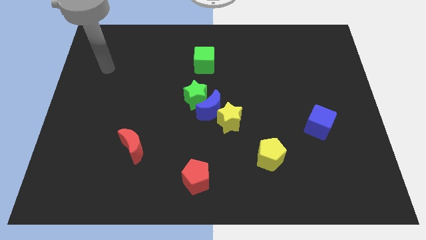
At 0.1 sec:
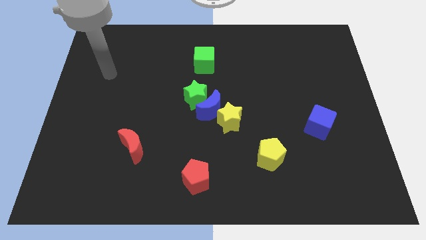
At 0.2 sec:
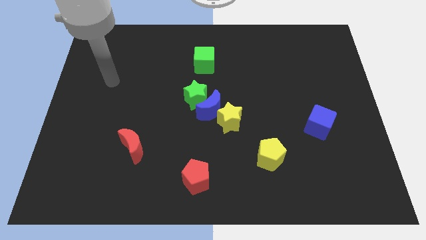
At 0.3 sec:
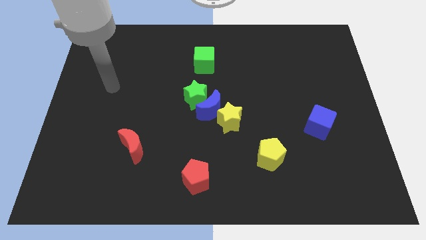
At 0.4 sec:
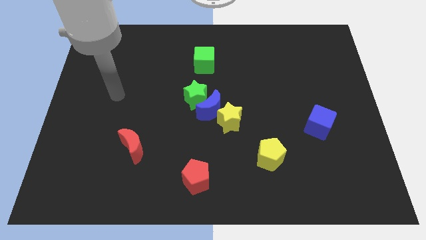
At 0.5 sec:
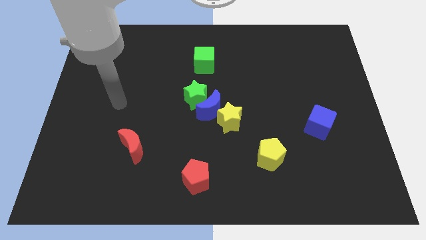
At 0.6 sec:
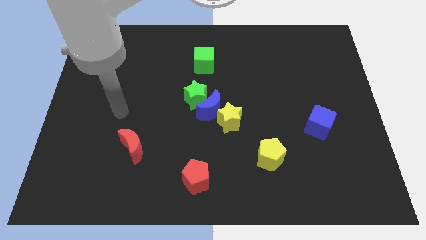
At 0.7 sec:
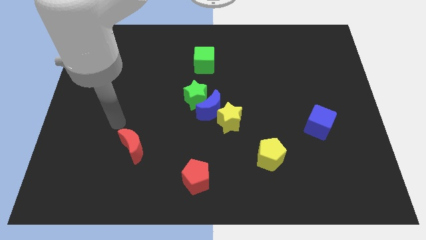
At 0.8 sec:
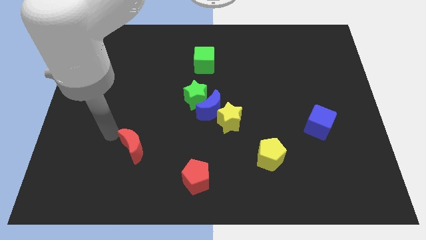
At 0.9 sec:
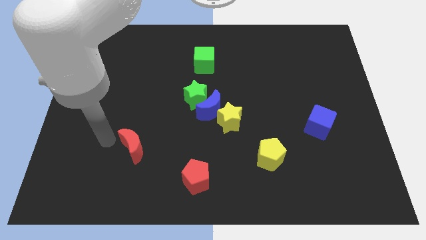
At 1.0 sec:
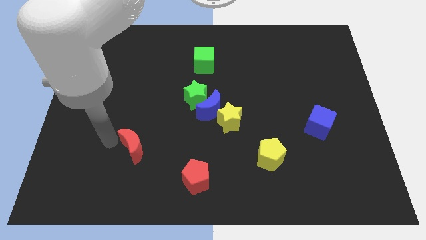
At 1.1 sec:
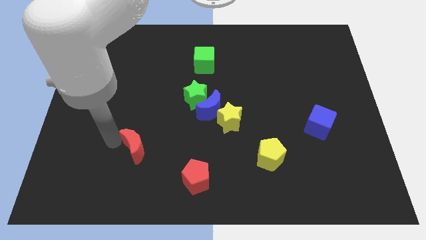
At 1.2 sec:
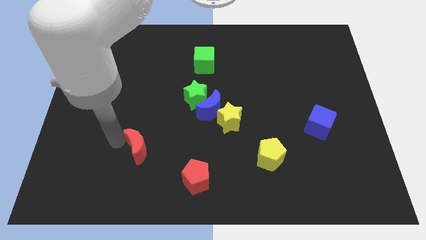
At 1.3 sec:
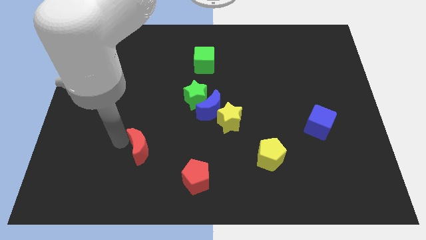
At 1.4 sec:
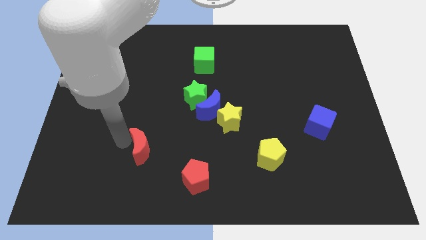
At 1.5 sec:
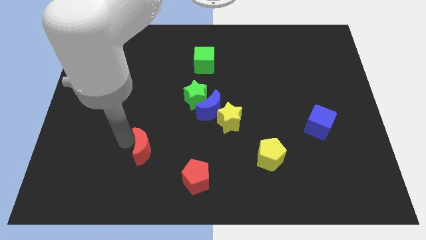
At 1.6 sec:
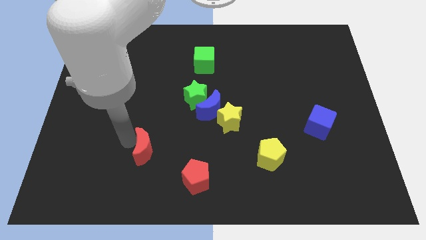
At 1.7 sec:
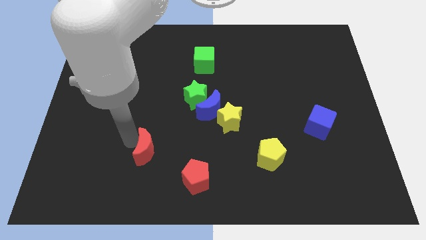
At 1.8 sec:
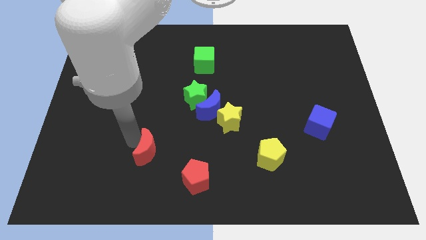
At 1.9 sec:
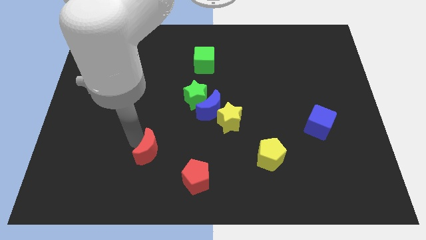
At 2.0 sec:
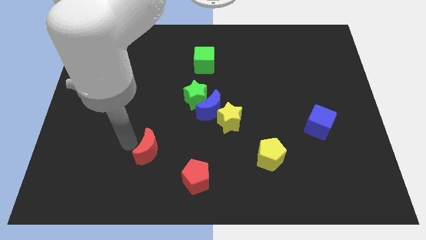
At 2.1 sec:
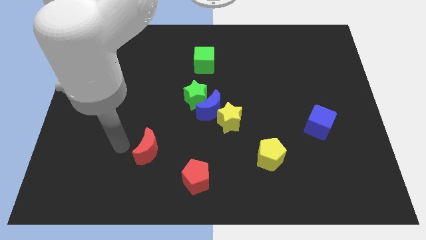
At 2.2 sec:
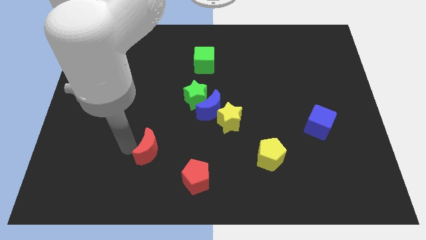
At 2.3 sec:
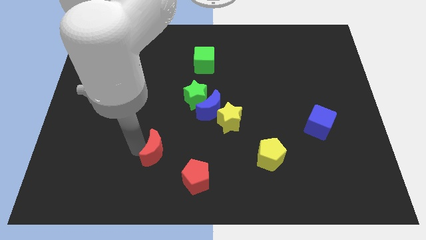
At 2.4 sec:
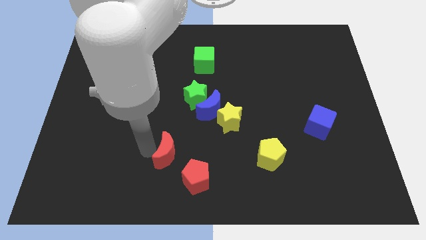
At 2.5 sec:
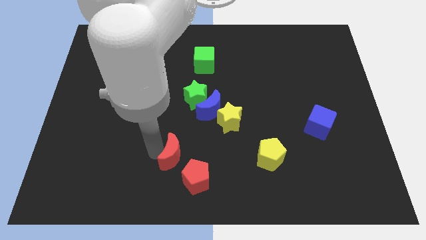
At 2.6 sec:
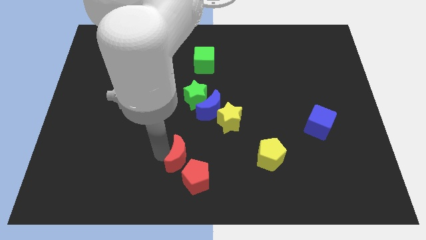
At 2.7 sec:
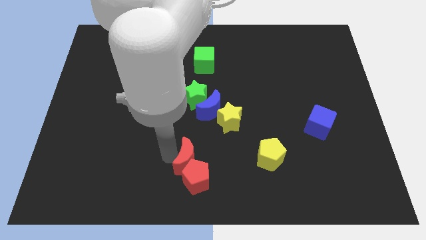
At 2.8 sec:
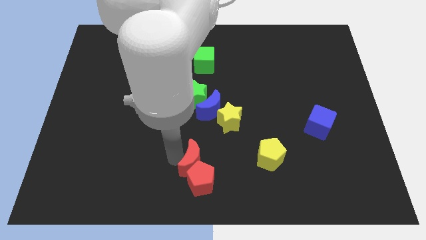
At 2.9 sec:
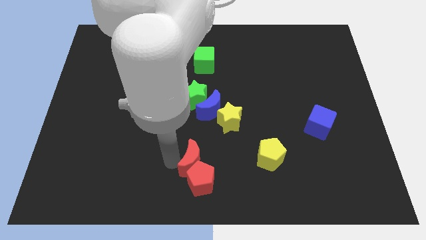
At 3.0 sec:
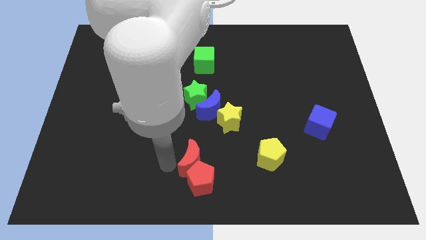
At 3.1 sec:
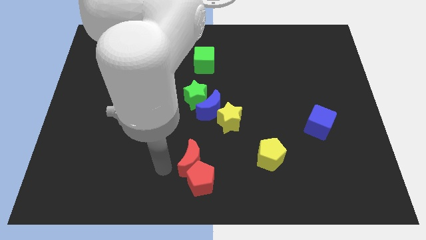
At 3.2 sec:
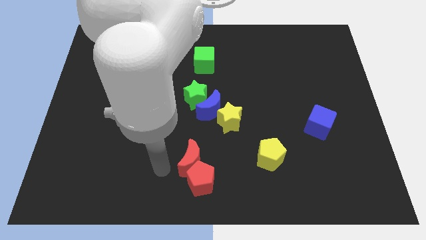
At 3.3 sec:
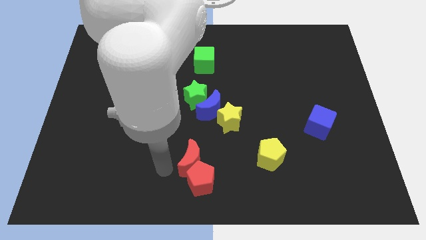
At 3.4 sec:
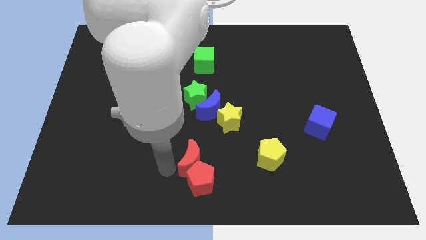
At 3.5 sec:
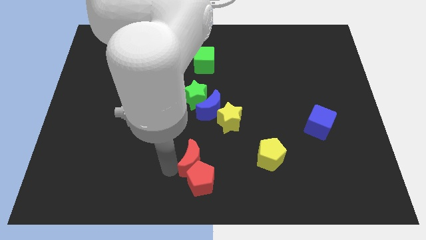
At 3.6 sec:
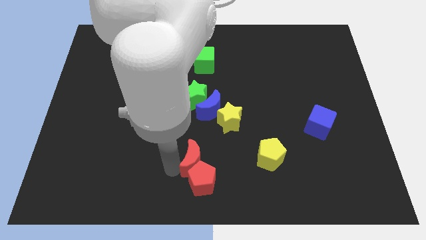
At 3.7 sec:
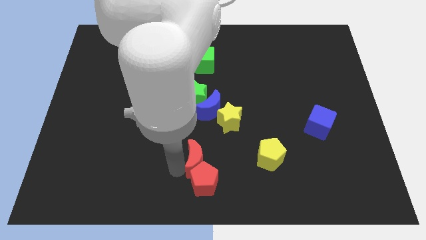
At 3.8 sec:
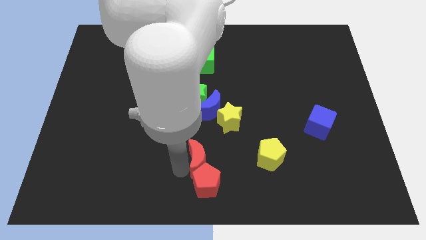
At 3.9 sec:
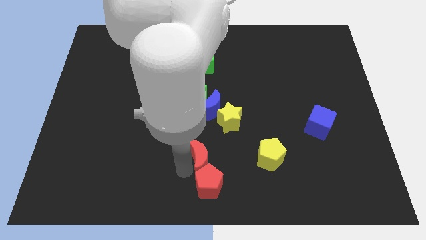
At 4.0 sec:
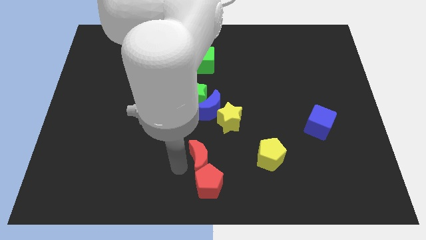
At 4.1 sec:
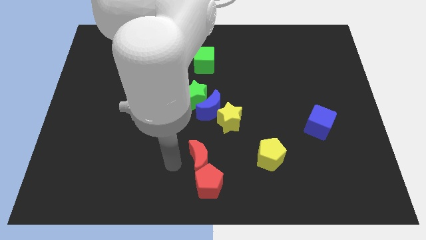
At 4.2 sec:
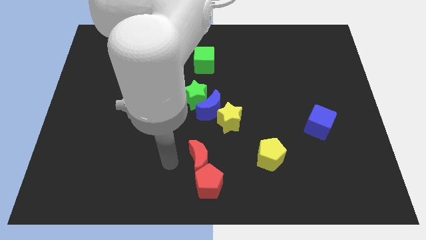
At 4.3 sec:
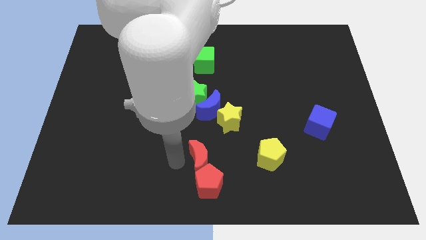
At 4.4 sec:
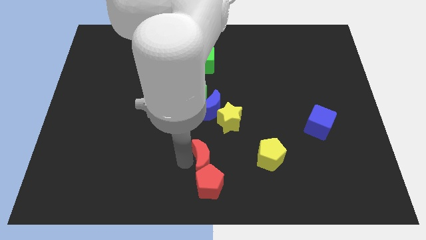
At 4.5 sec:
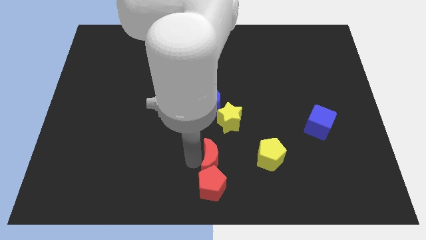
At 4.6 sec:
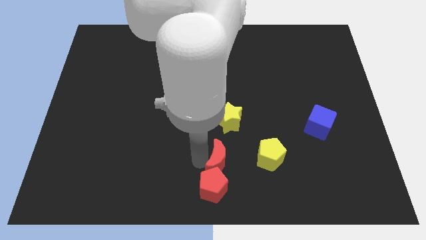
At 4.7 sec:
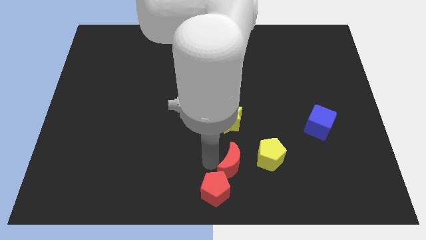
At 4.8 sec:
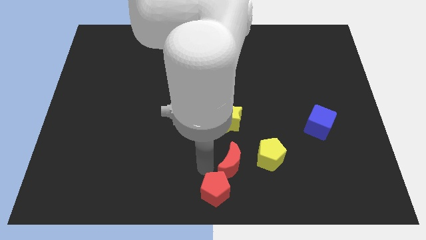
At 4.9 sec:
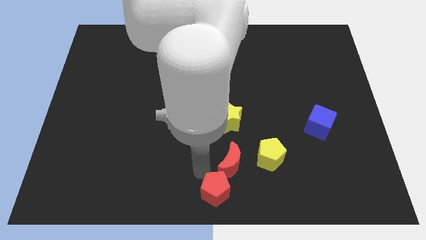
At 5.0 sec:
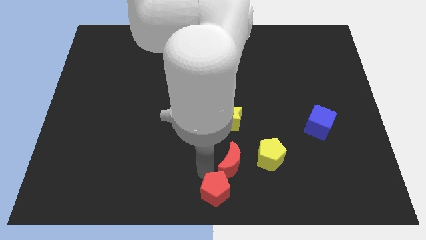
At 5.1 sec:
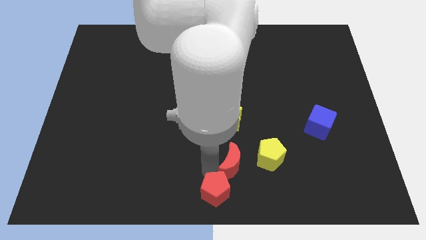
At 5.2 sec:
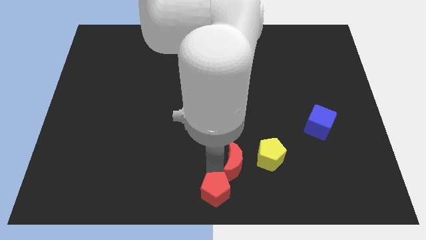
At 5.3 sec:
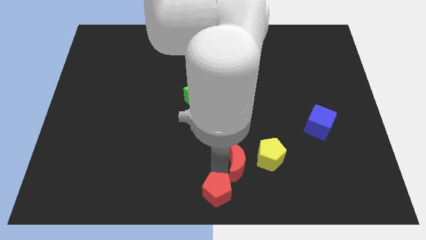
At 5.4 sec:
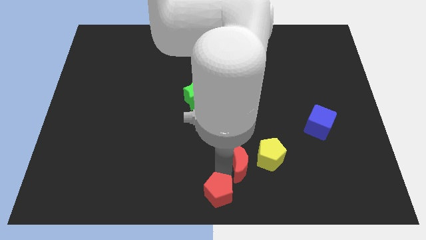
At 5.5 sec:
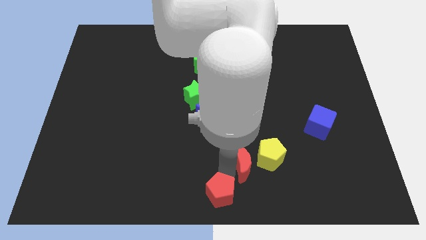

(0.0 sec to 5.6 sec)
put the red moon next to the yellow pentagon

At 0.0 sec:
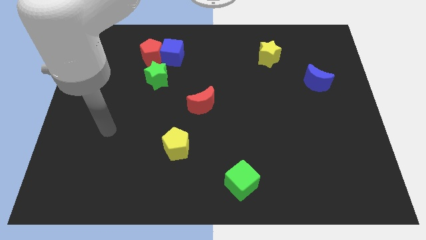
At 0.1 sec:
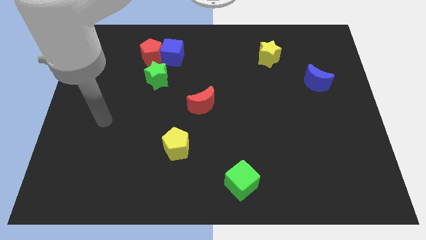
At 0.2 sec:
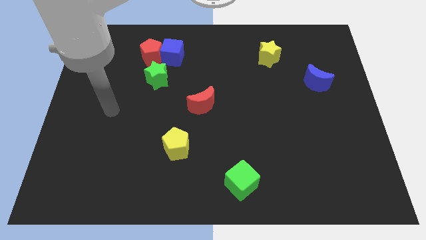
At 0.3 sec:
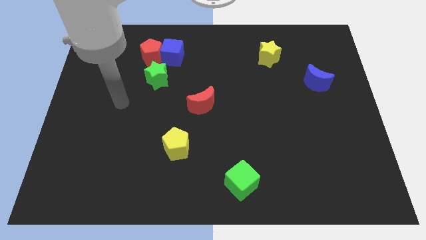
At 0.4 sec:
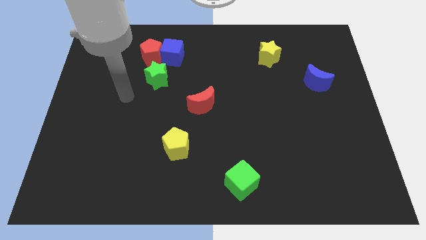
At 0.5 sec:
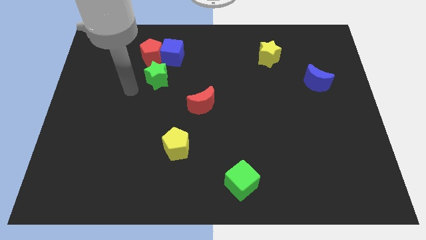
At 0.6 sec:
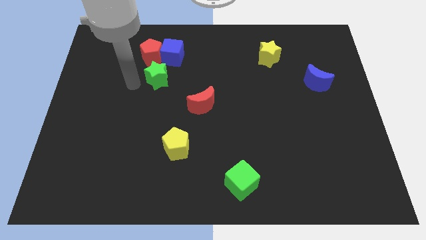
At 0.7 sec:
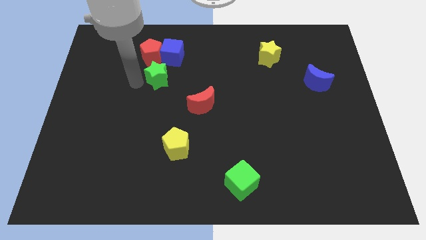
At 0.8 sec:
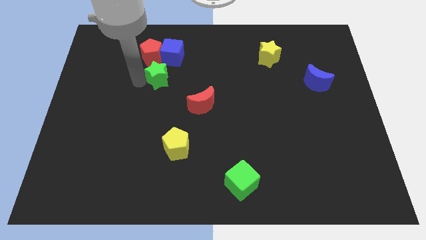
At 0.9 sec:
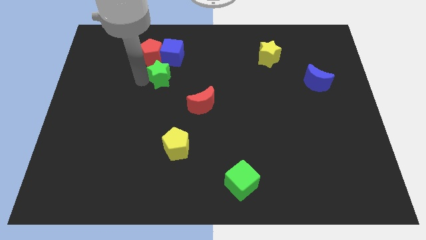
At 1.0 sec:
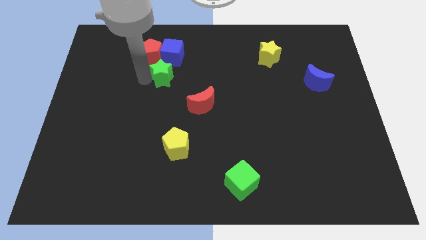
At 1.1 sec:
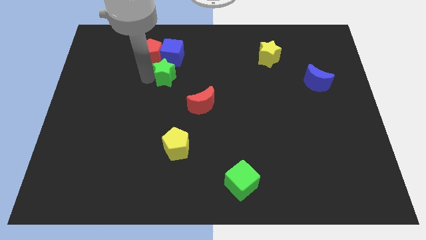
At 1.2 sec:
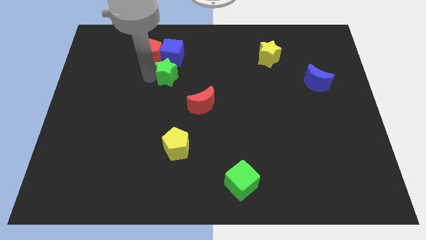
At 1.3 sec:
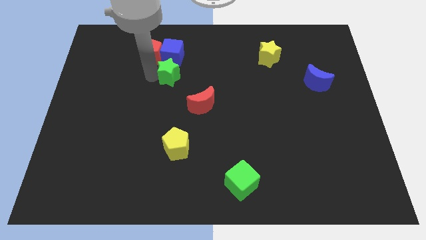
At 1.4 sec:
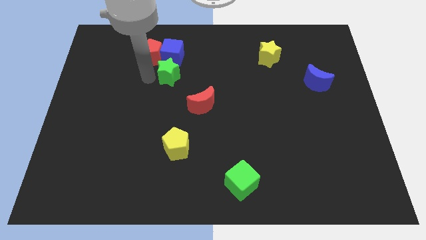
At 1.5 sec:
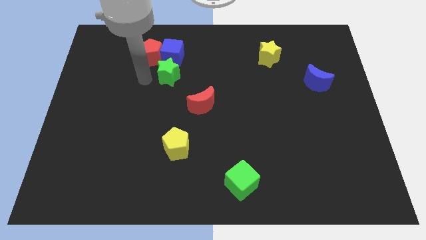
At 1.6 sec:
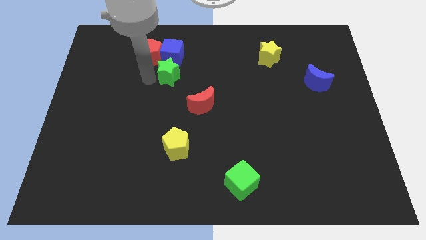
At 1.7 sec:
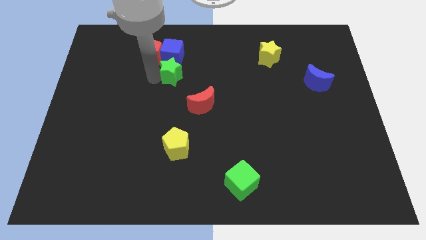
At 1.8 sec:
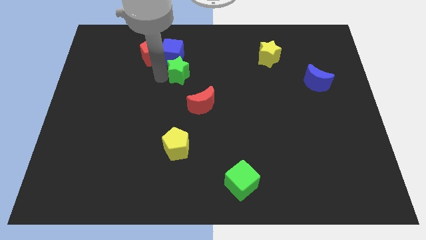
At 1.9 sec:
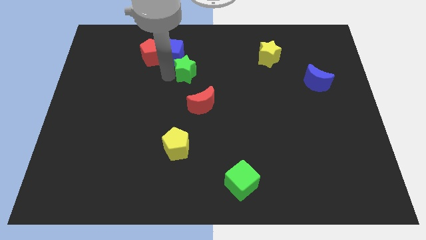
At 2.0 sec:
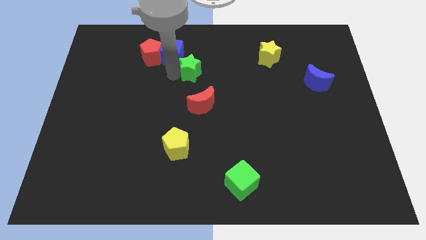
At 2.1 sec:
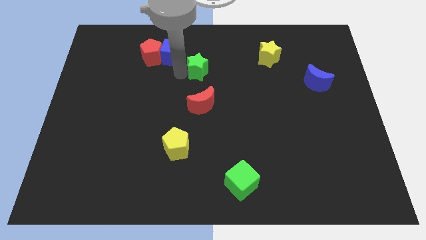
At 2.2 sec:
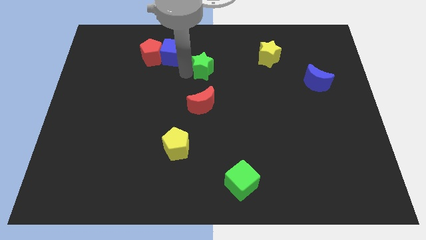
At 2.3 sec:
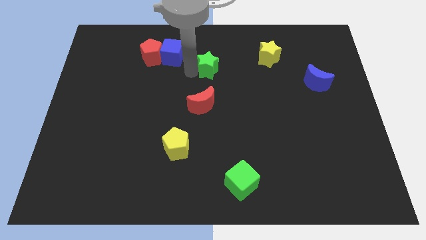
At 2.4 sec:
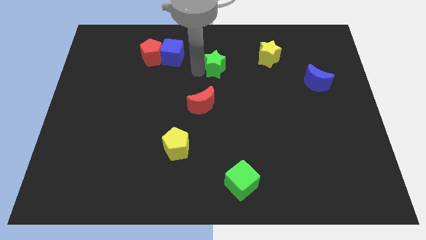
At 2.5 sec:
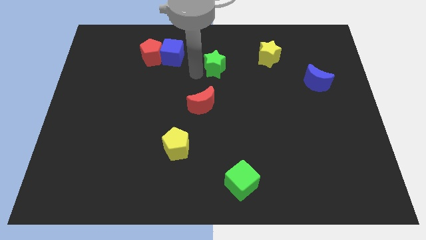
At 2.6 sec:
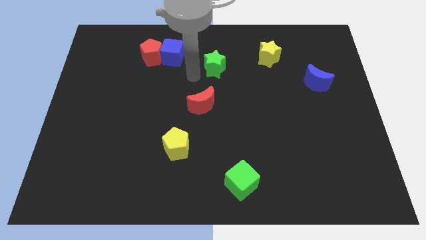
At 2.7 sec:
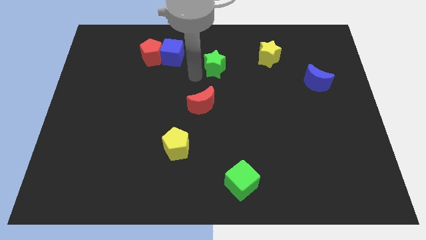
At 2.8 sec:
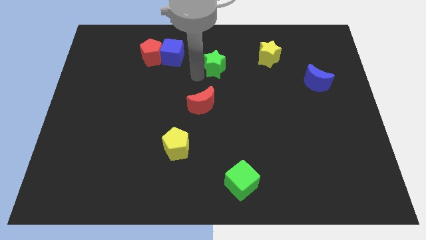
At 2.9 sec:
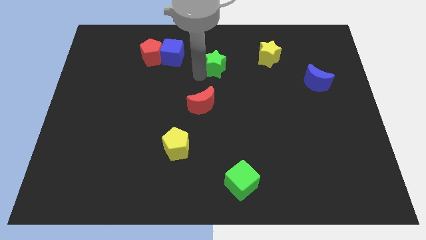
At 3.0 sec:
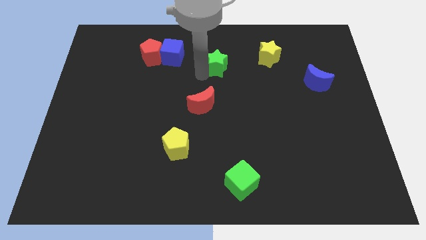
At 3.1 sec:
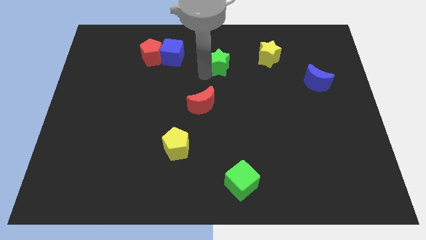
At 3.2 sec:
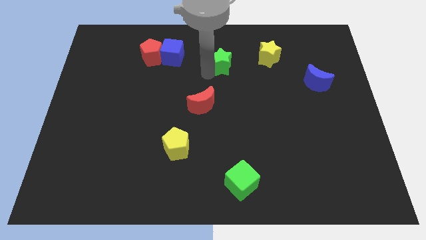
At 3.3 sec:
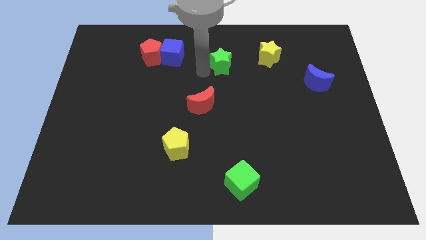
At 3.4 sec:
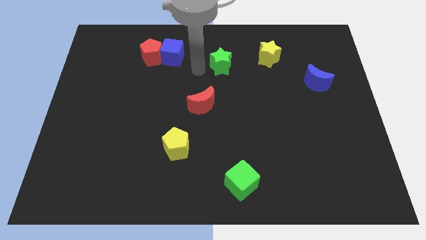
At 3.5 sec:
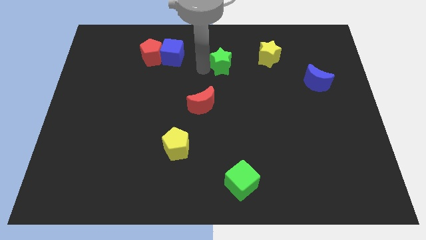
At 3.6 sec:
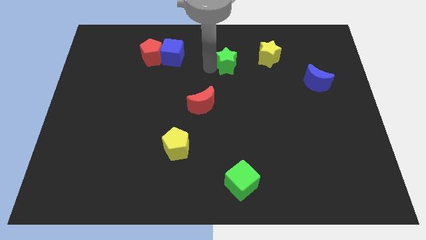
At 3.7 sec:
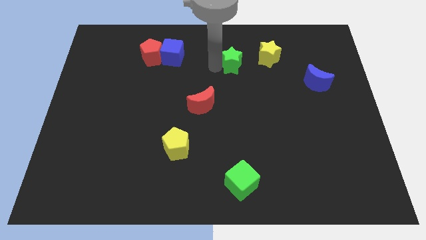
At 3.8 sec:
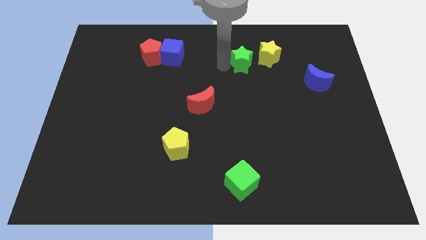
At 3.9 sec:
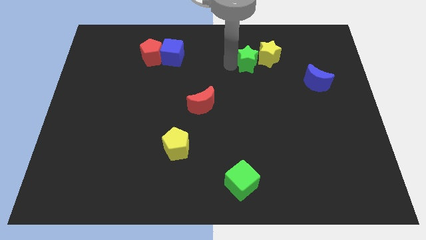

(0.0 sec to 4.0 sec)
push the green star to the yellow star
